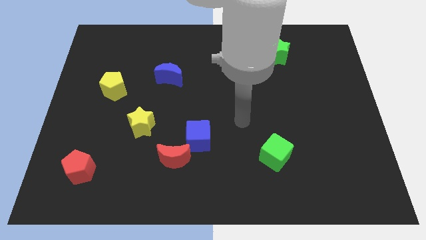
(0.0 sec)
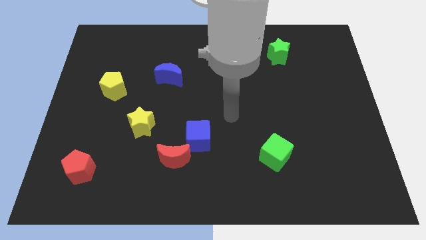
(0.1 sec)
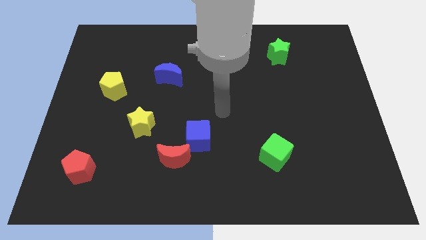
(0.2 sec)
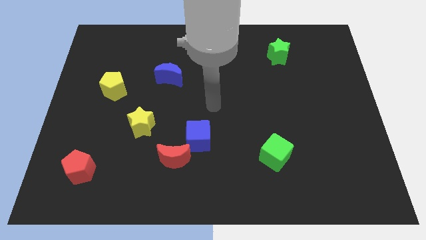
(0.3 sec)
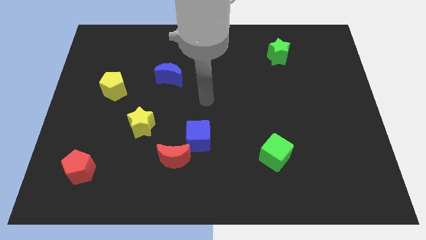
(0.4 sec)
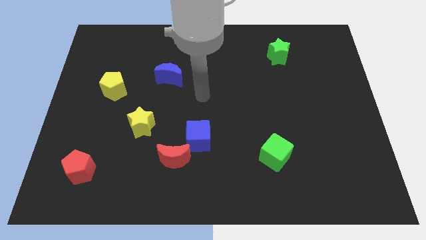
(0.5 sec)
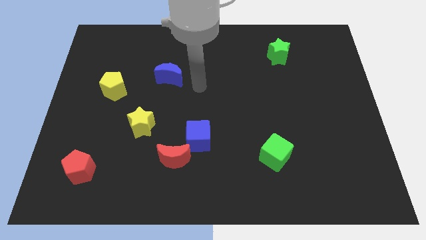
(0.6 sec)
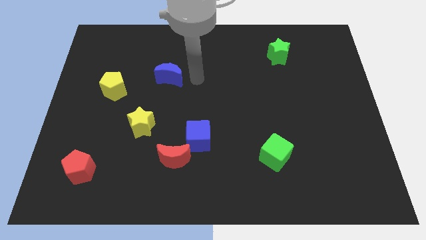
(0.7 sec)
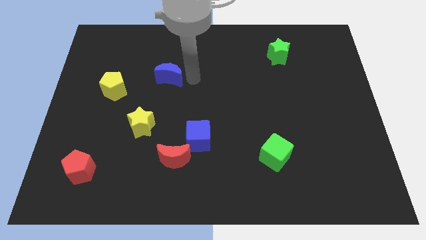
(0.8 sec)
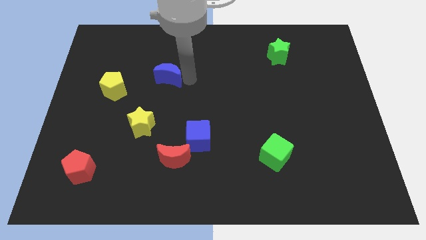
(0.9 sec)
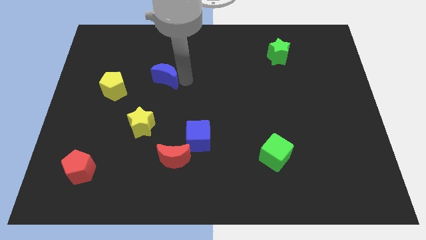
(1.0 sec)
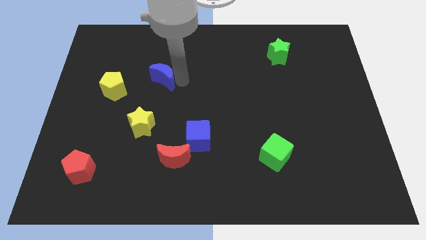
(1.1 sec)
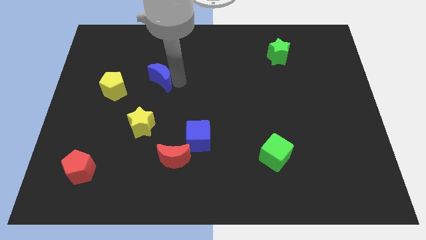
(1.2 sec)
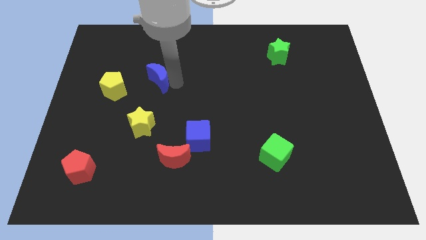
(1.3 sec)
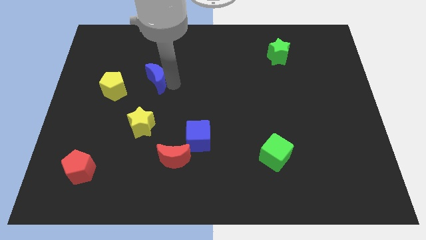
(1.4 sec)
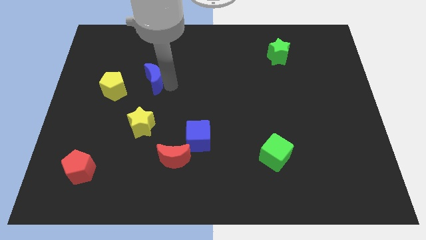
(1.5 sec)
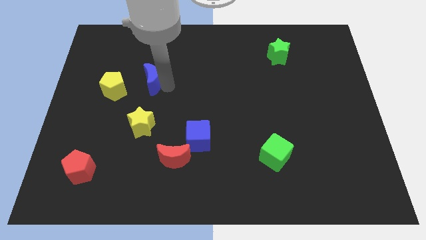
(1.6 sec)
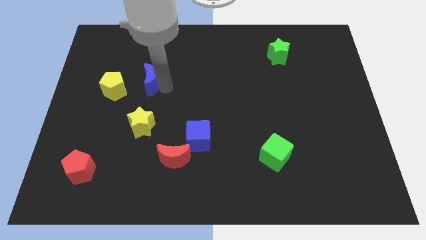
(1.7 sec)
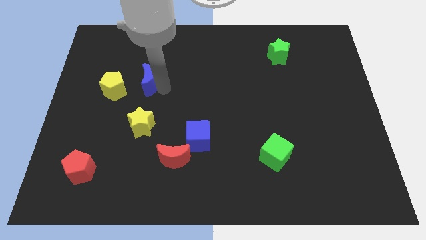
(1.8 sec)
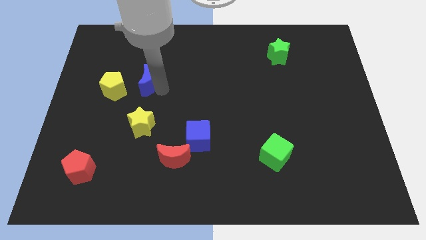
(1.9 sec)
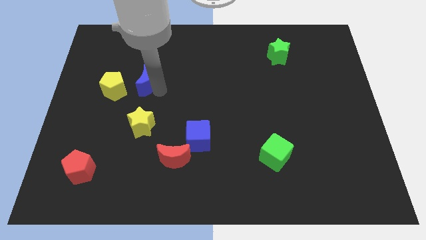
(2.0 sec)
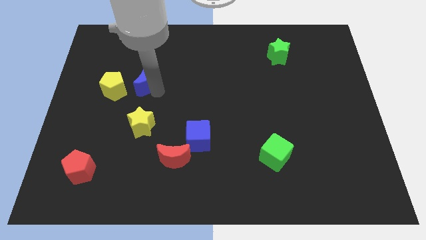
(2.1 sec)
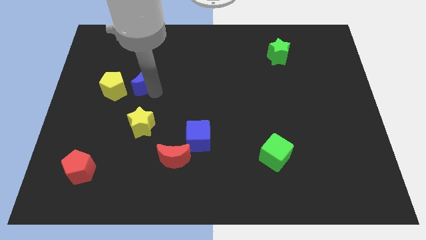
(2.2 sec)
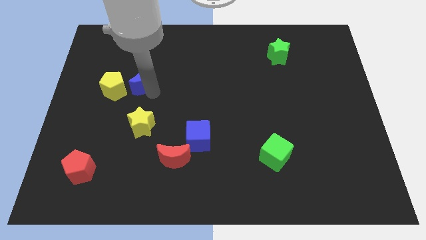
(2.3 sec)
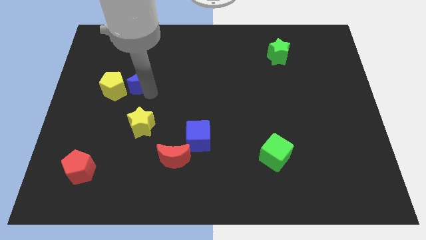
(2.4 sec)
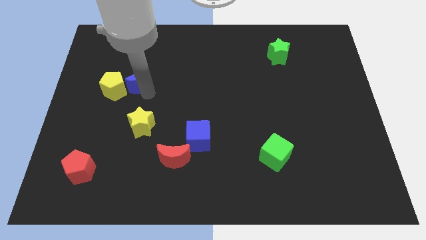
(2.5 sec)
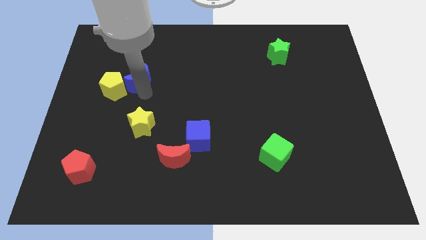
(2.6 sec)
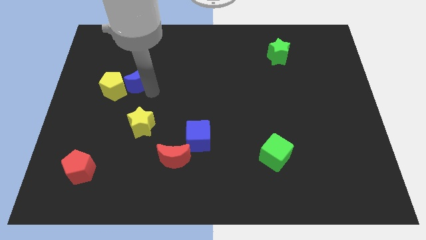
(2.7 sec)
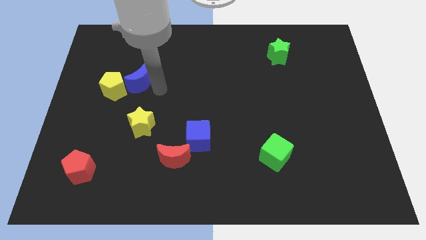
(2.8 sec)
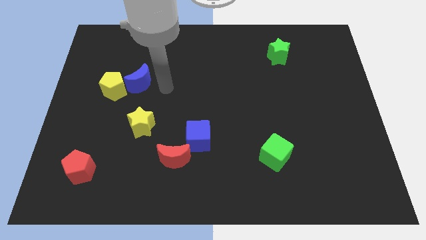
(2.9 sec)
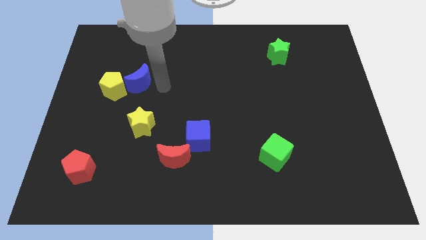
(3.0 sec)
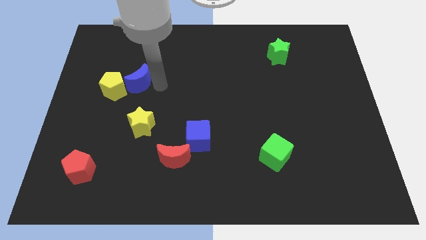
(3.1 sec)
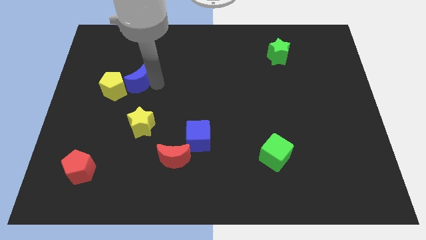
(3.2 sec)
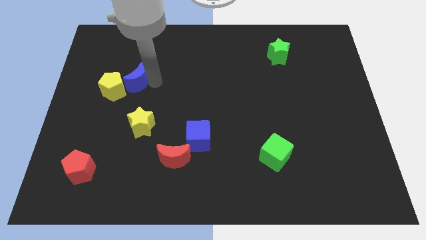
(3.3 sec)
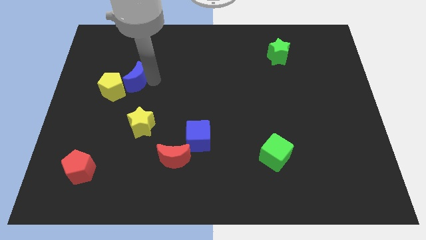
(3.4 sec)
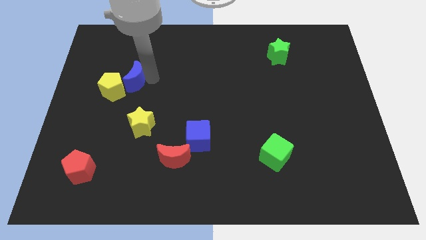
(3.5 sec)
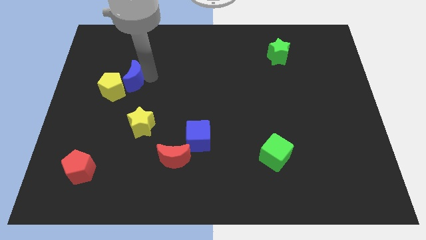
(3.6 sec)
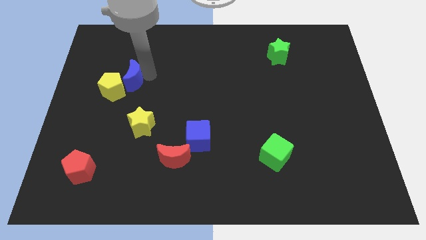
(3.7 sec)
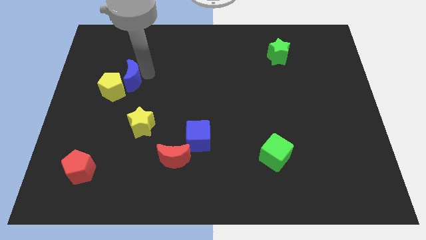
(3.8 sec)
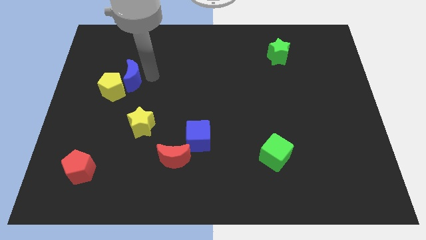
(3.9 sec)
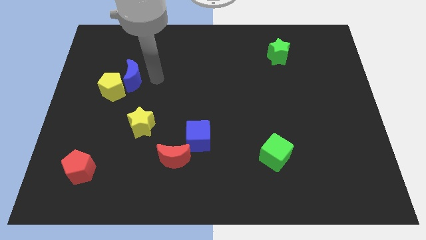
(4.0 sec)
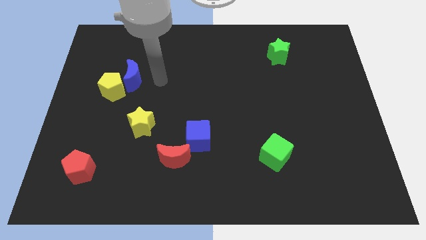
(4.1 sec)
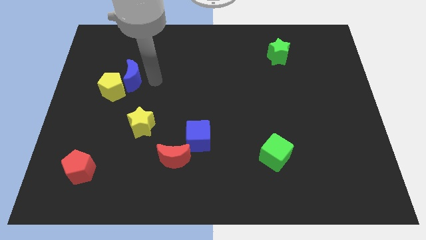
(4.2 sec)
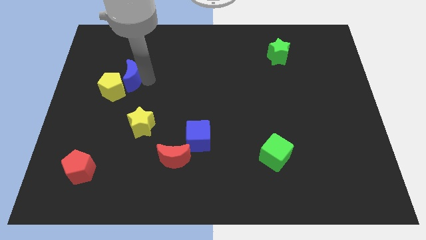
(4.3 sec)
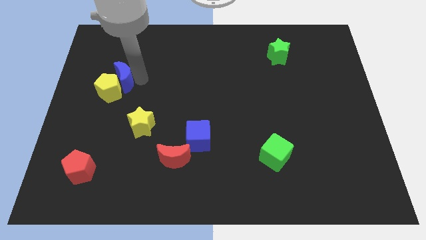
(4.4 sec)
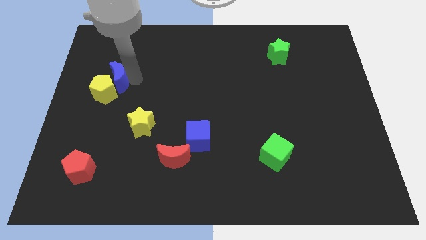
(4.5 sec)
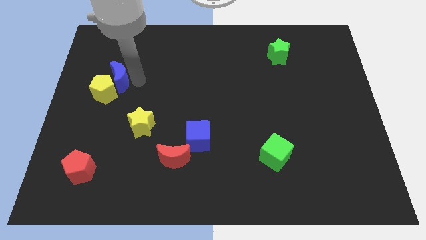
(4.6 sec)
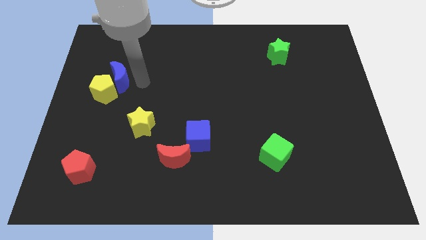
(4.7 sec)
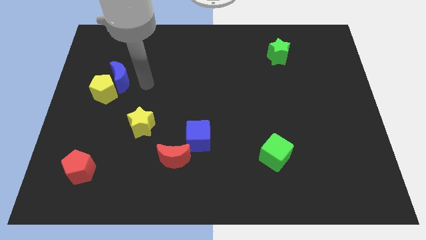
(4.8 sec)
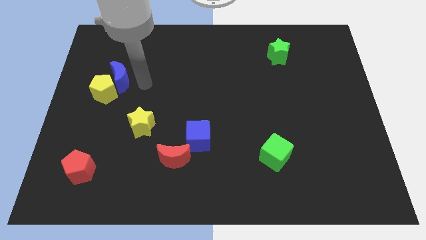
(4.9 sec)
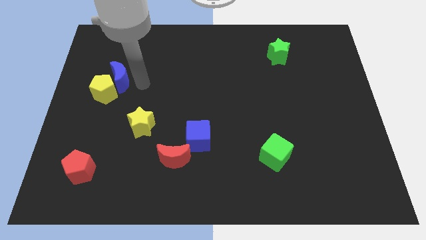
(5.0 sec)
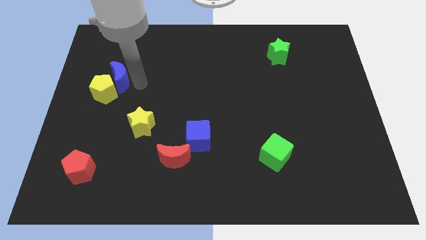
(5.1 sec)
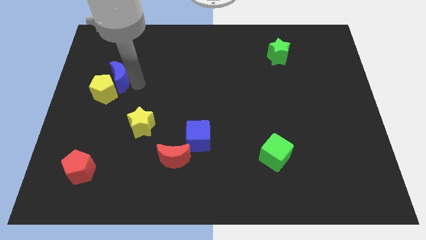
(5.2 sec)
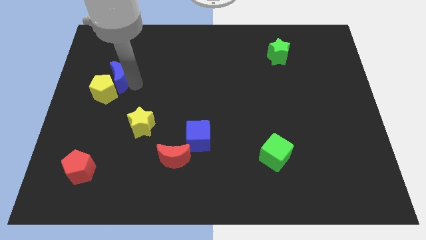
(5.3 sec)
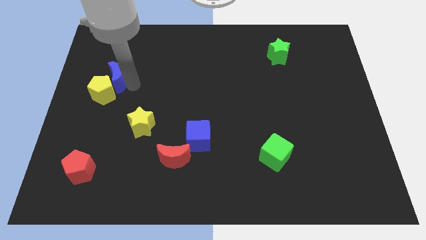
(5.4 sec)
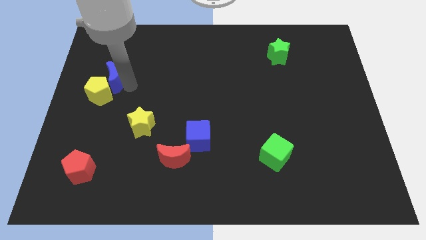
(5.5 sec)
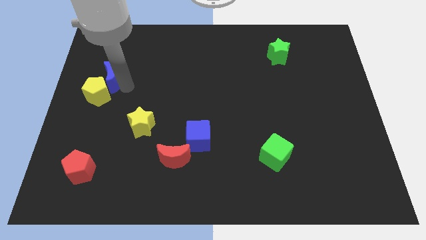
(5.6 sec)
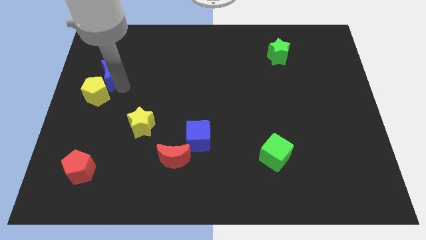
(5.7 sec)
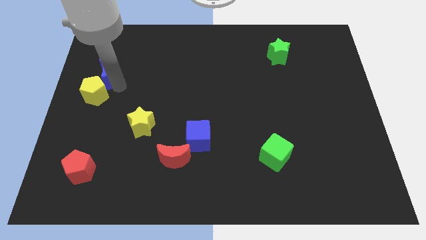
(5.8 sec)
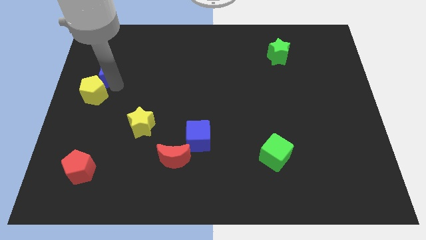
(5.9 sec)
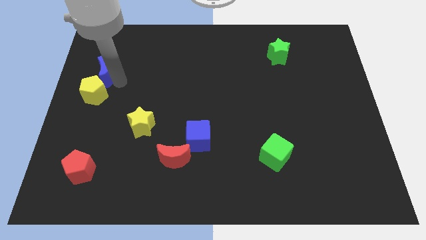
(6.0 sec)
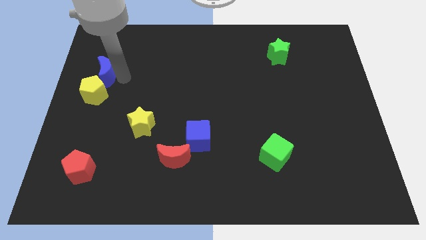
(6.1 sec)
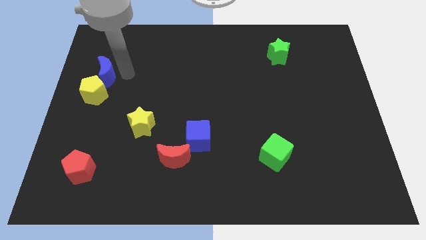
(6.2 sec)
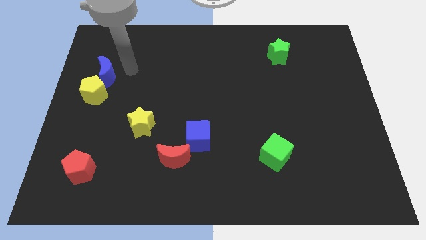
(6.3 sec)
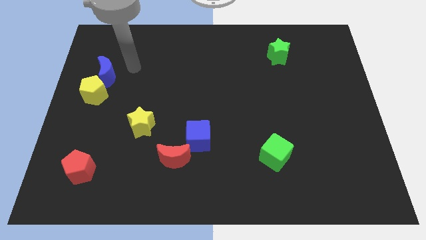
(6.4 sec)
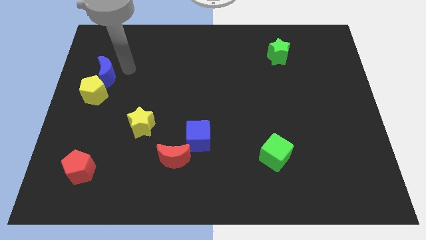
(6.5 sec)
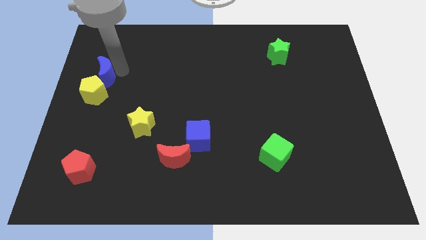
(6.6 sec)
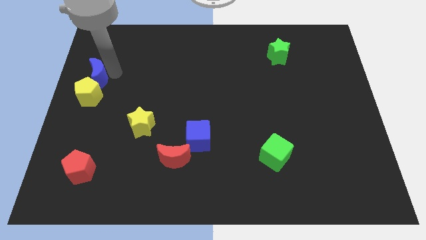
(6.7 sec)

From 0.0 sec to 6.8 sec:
put the blue moon to the left side of the board

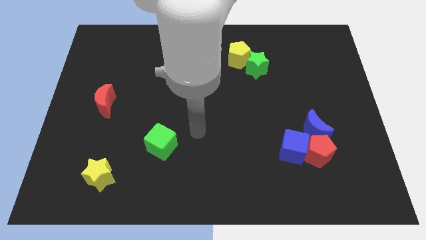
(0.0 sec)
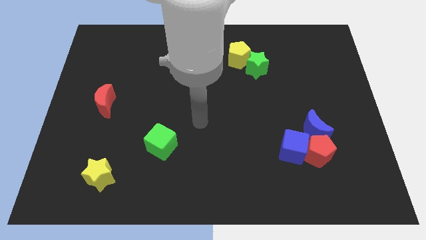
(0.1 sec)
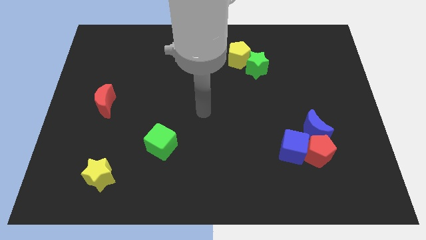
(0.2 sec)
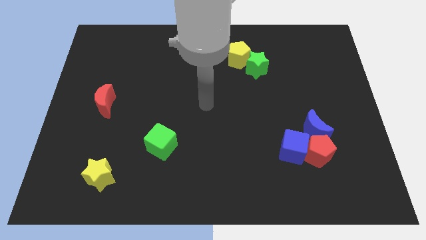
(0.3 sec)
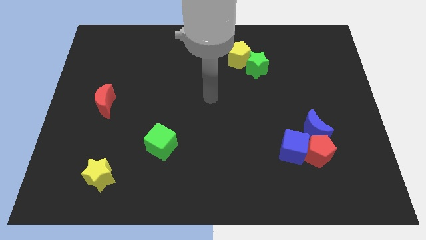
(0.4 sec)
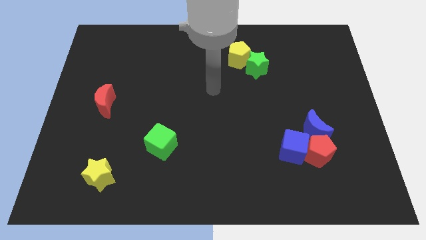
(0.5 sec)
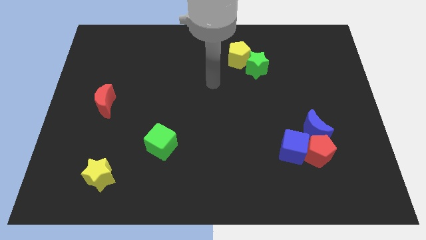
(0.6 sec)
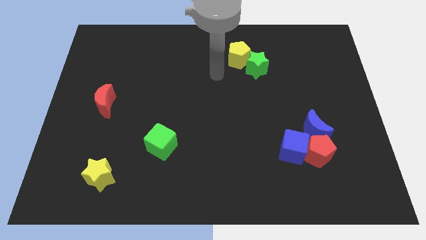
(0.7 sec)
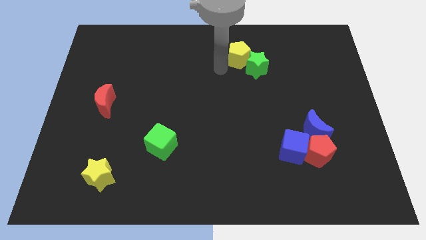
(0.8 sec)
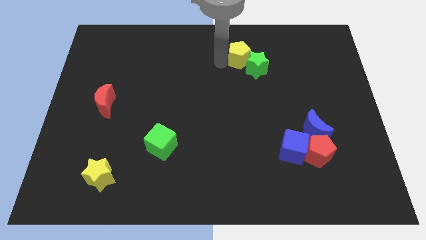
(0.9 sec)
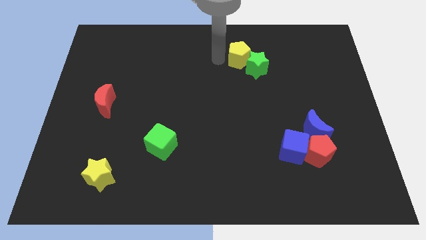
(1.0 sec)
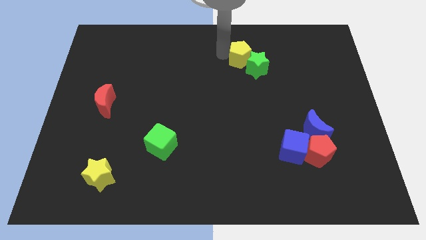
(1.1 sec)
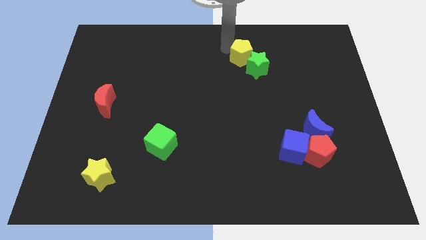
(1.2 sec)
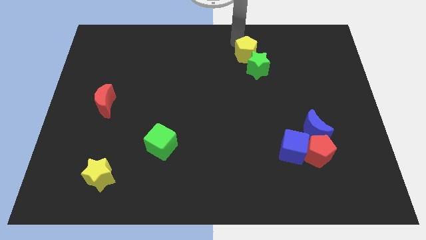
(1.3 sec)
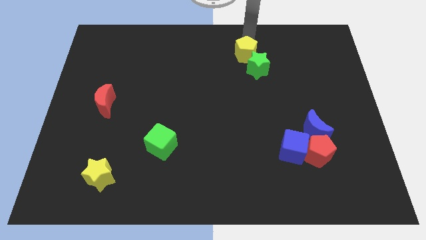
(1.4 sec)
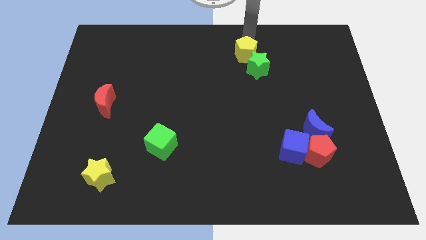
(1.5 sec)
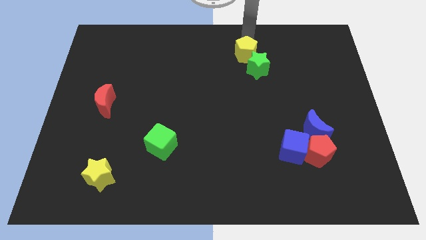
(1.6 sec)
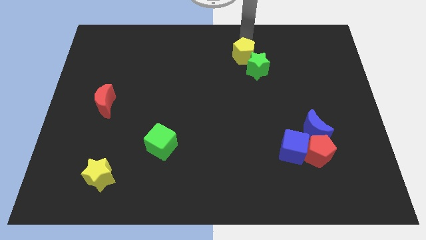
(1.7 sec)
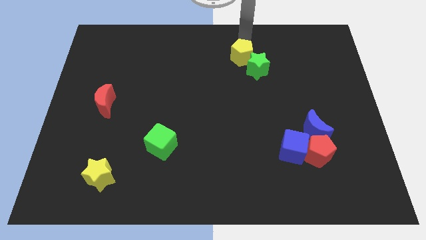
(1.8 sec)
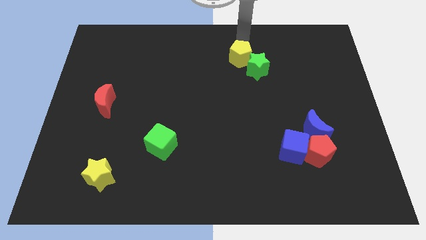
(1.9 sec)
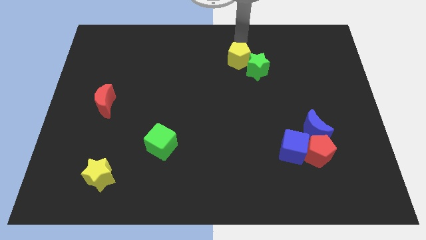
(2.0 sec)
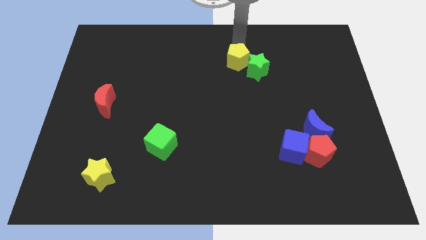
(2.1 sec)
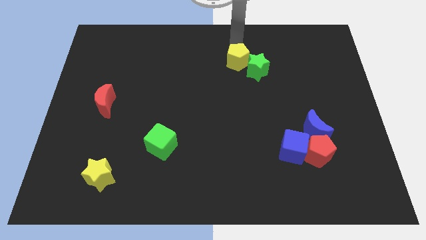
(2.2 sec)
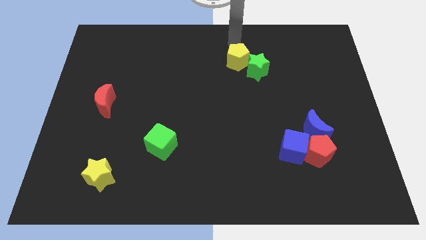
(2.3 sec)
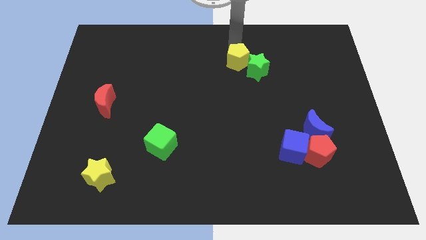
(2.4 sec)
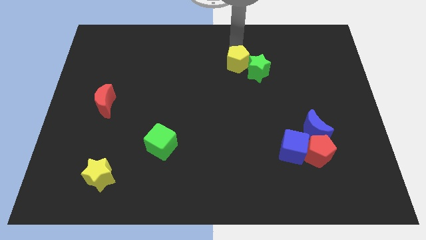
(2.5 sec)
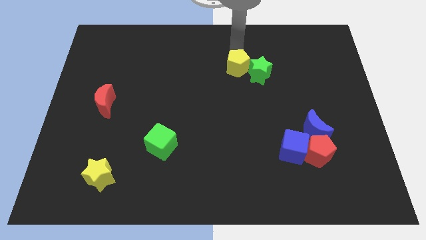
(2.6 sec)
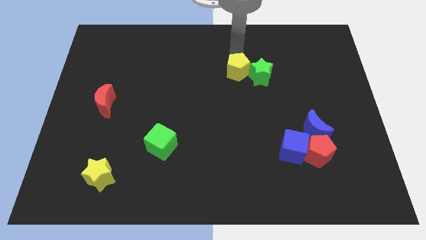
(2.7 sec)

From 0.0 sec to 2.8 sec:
push the yellow pentagon to the center of the board
